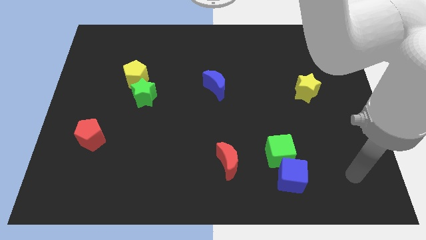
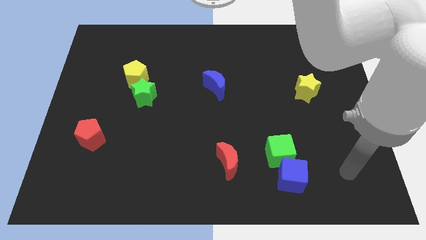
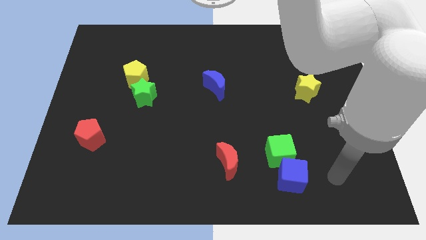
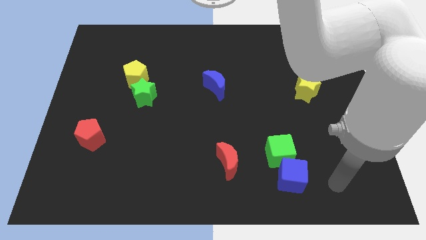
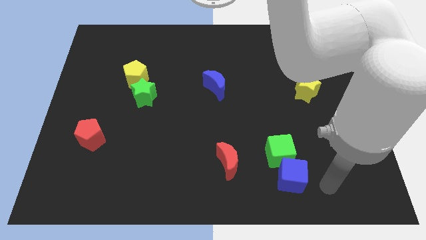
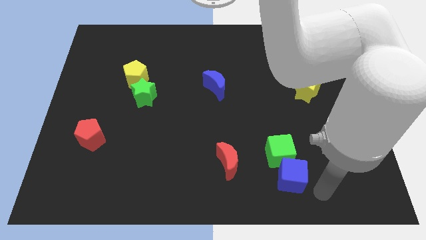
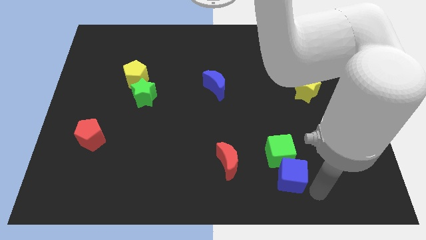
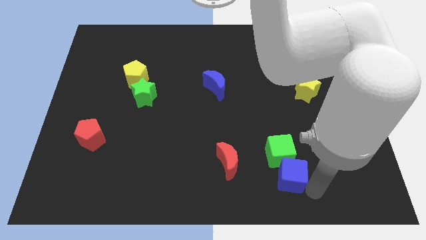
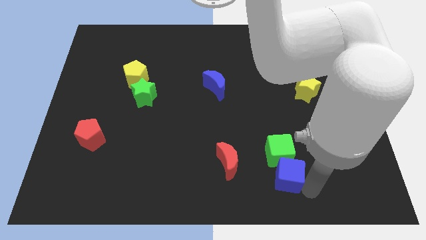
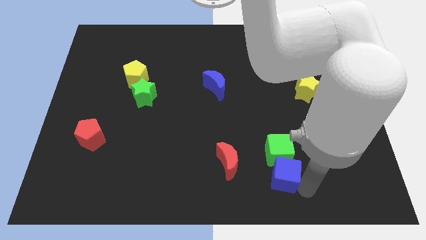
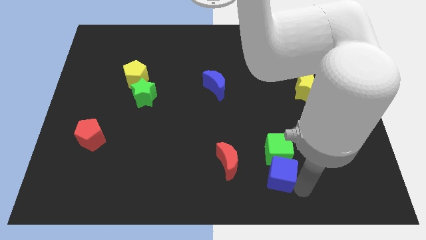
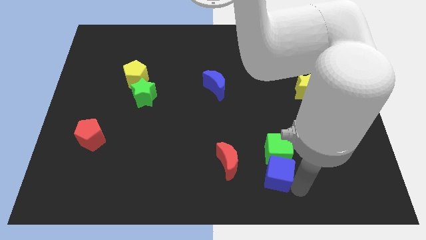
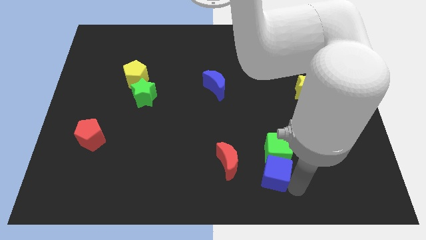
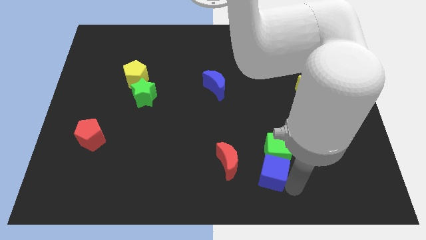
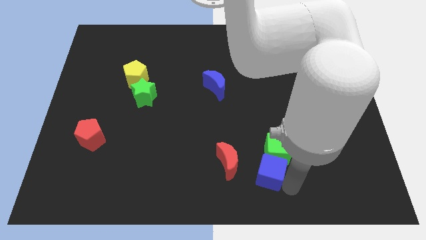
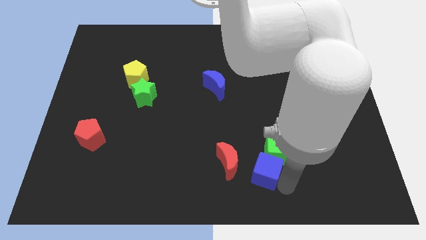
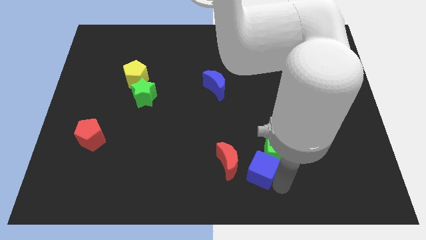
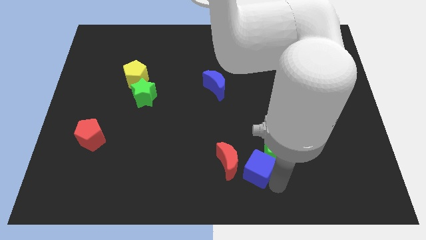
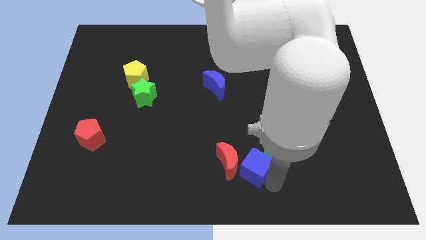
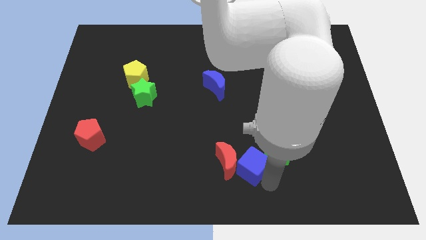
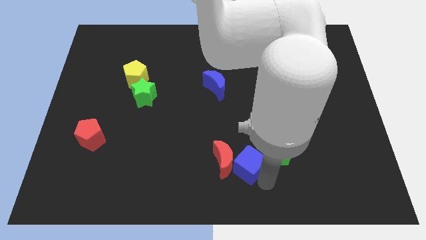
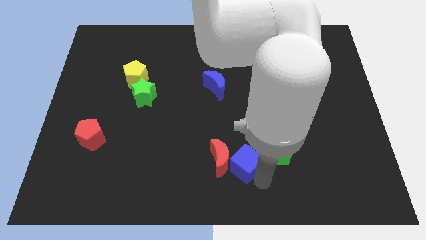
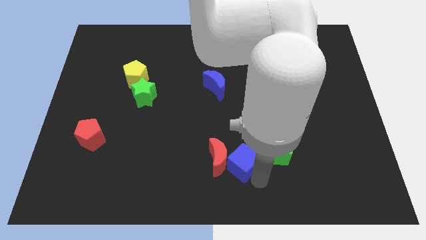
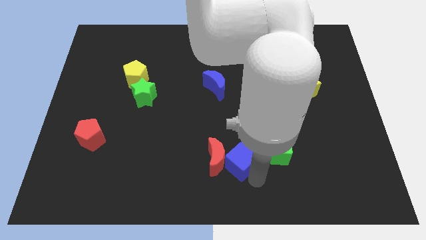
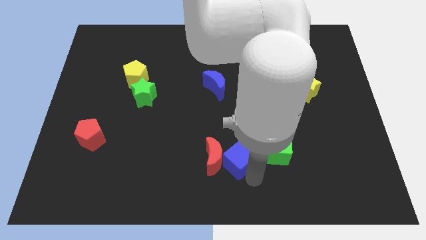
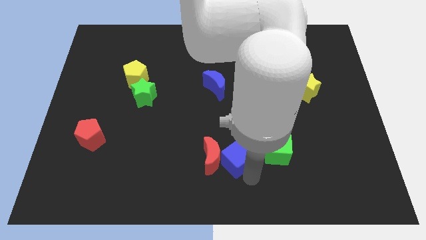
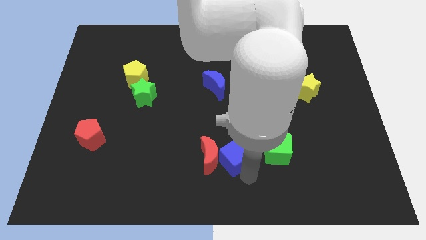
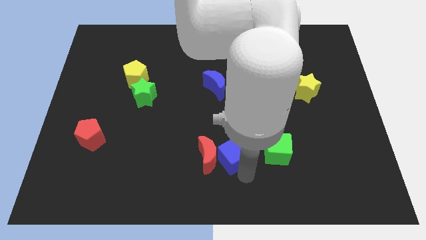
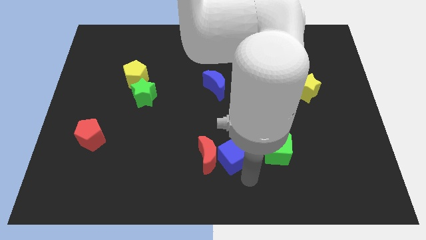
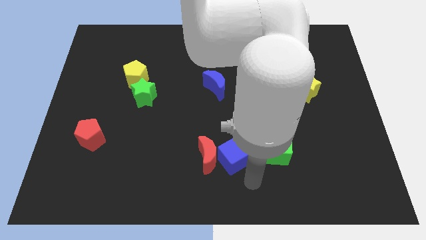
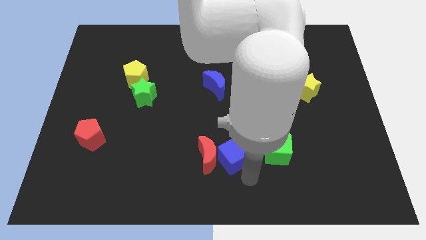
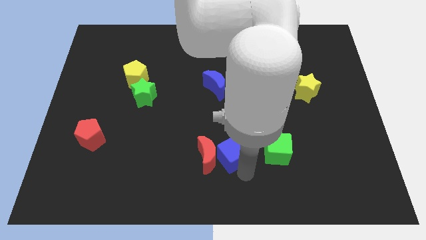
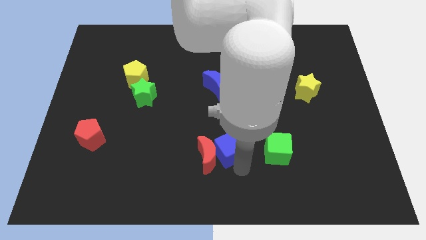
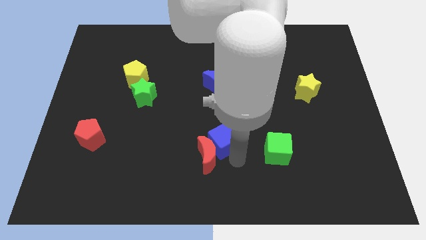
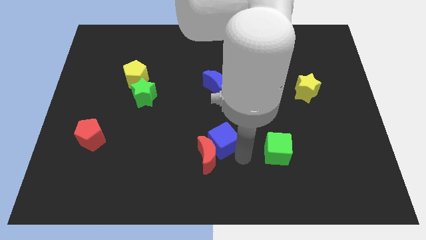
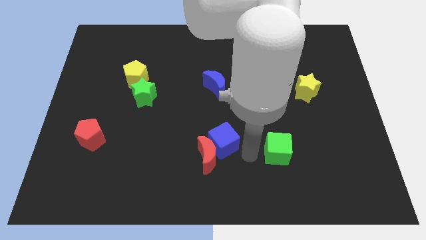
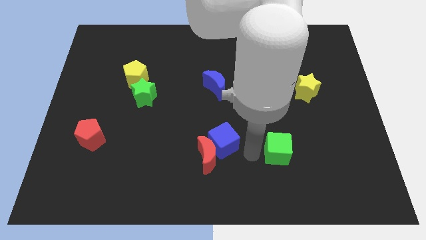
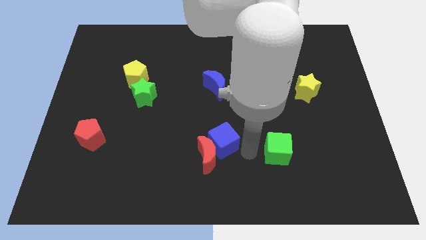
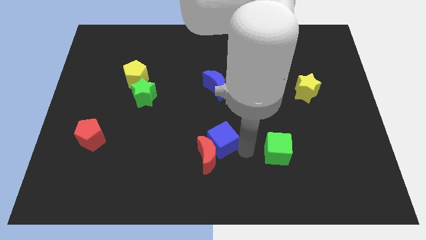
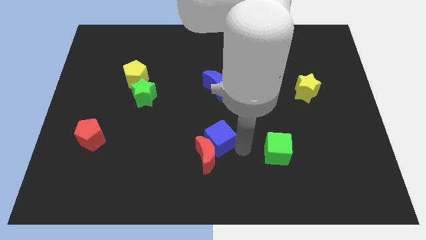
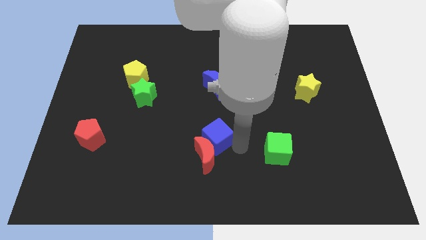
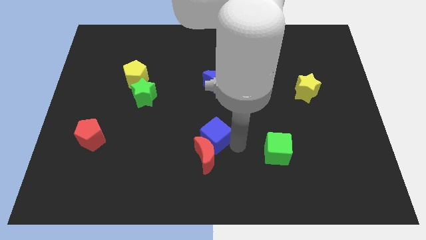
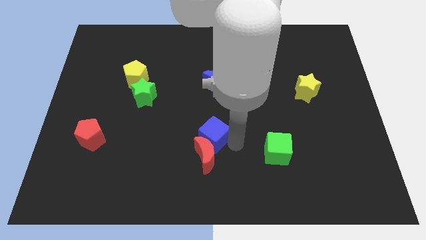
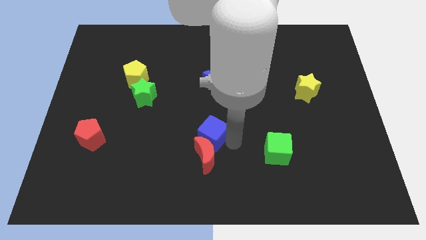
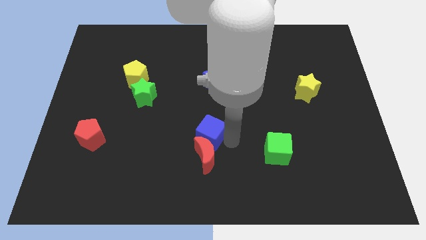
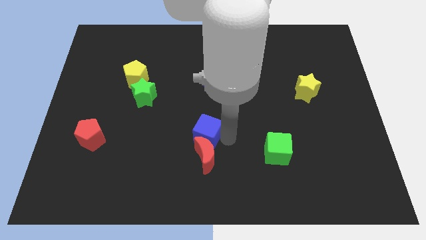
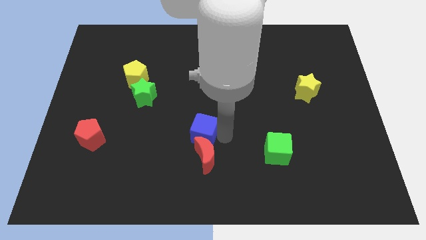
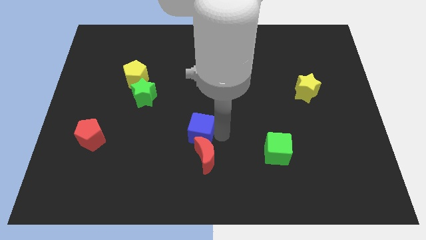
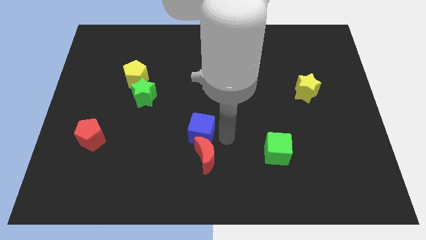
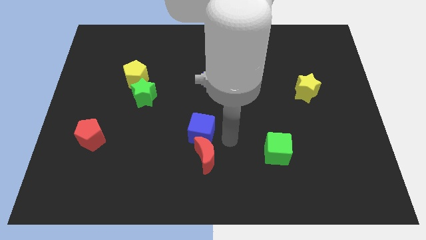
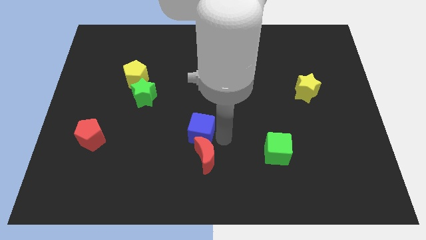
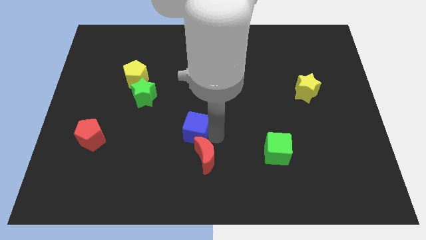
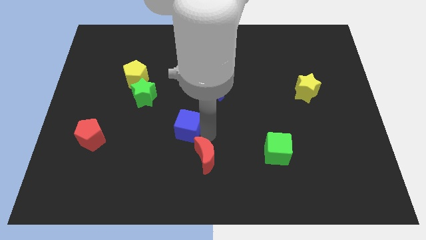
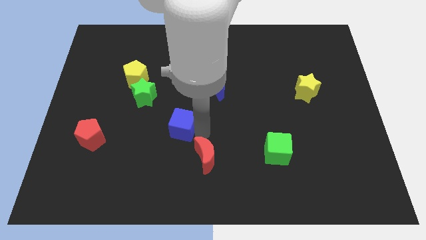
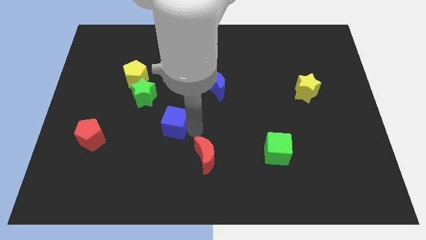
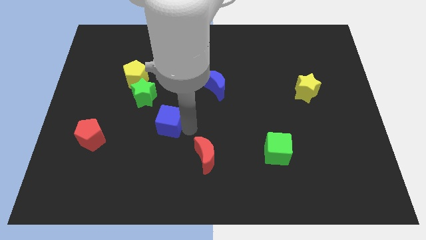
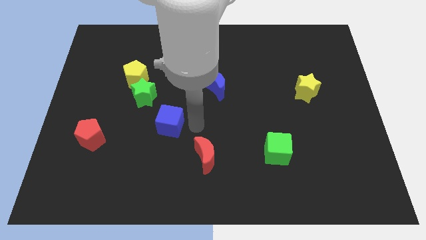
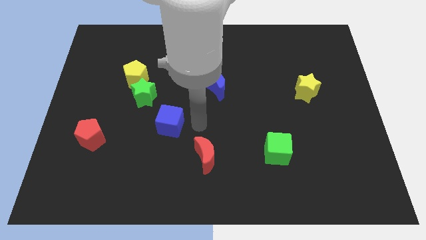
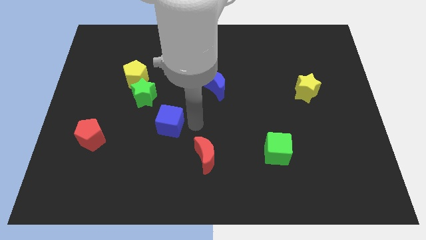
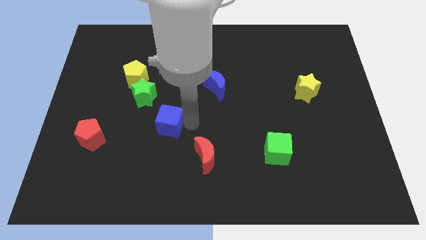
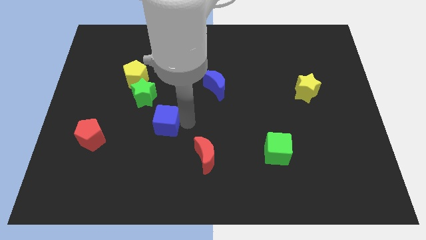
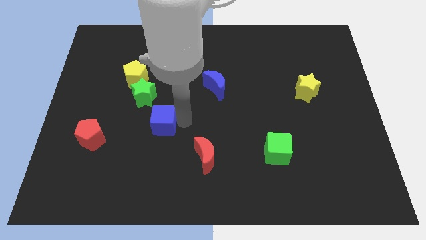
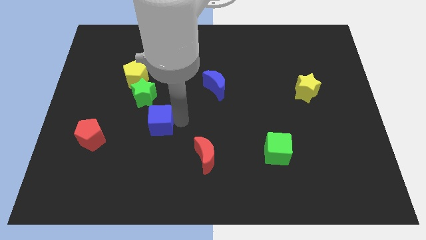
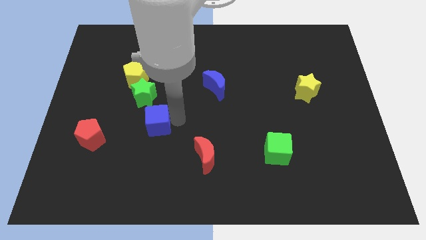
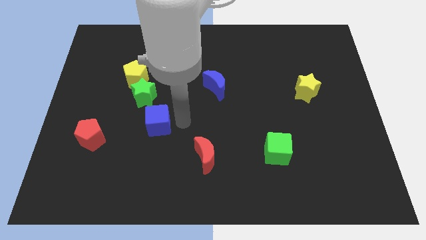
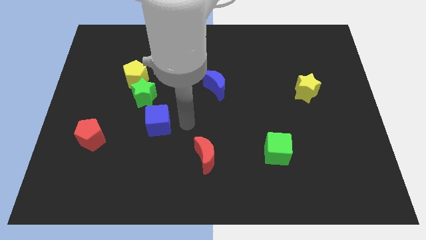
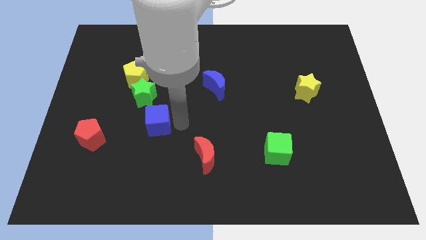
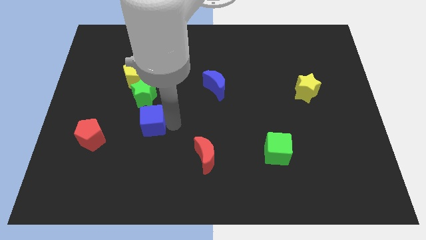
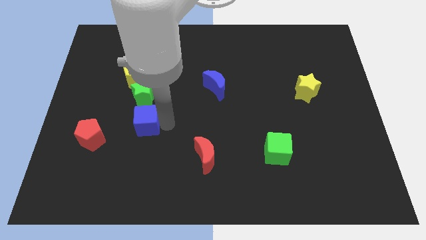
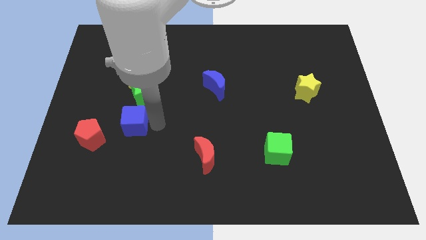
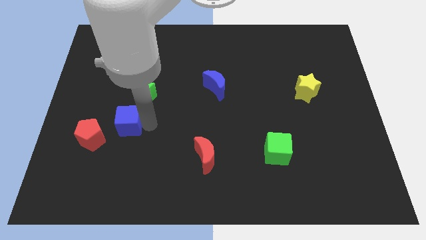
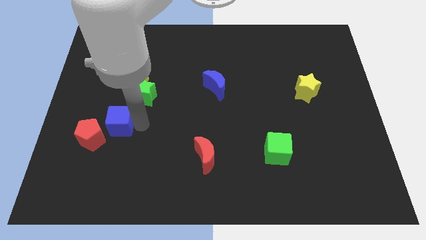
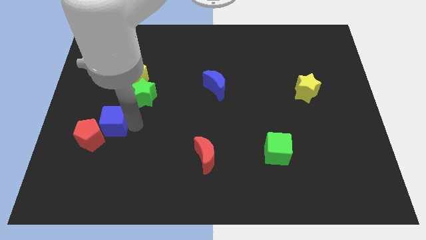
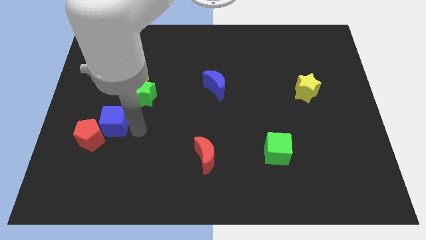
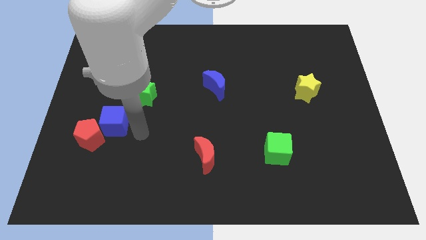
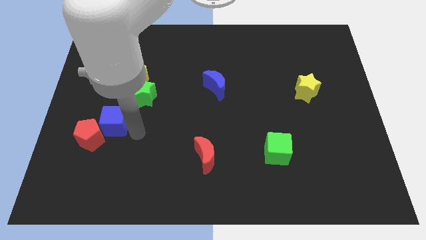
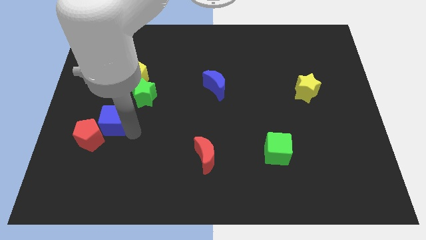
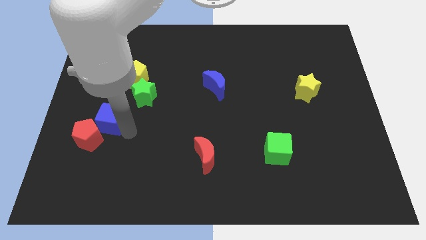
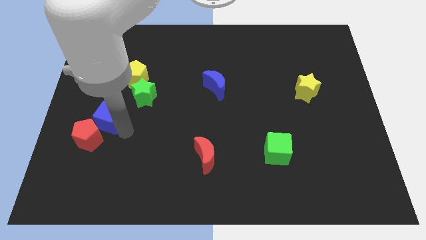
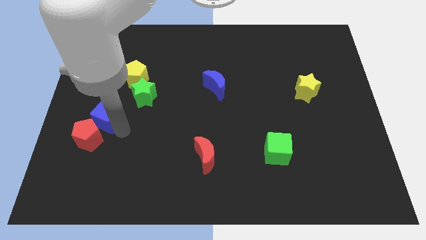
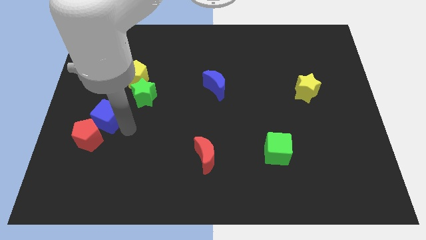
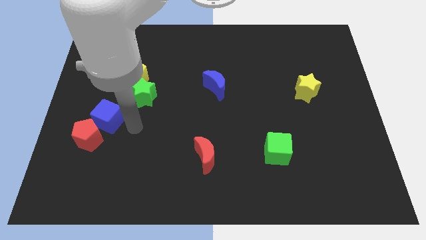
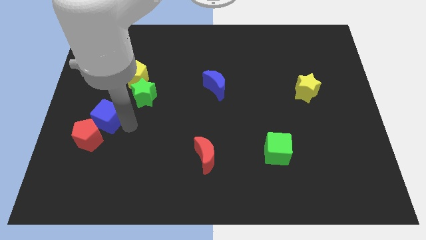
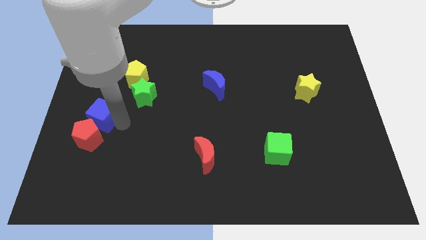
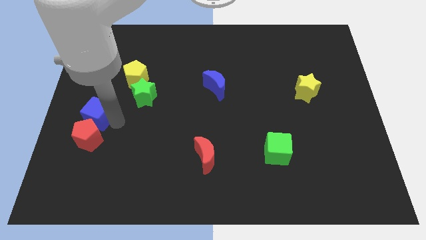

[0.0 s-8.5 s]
move the blue cube to the left side
